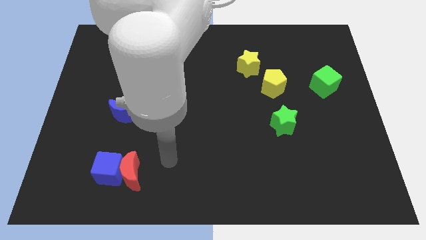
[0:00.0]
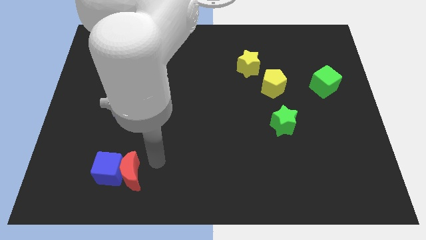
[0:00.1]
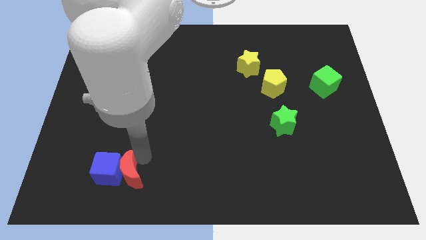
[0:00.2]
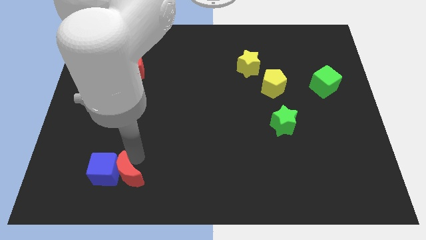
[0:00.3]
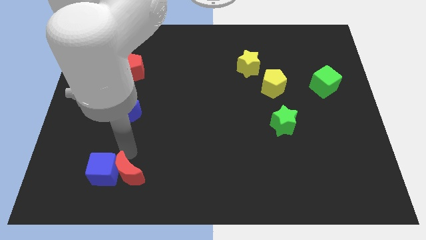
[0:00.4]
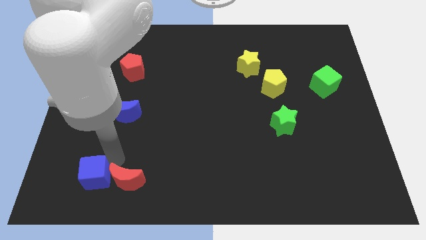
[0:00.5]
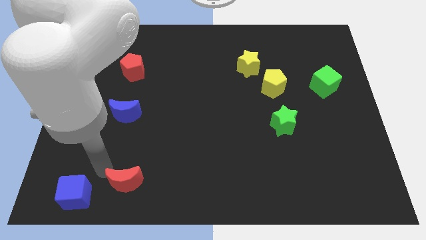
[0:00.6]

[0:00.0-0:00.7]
pull the red moon apart from the blue cube

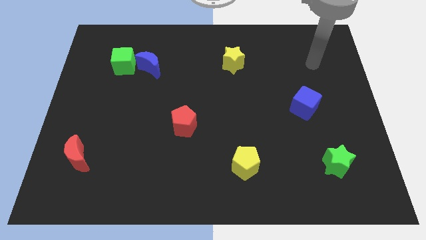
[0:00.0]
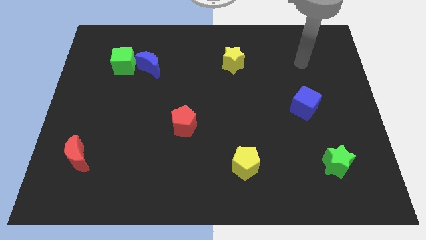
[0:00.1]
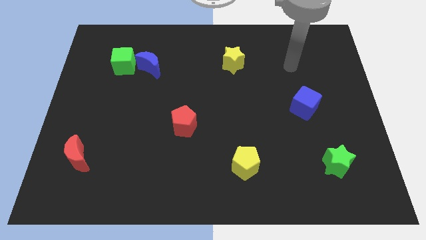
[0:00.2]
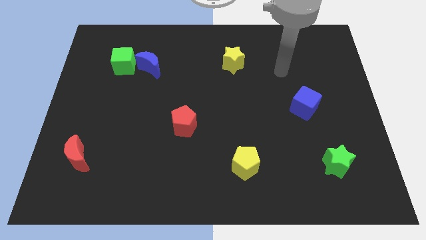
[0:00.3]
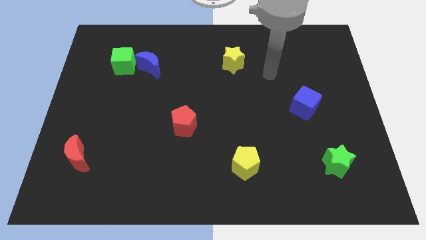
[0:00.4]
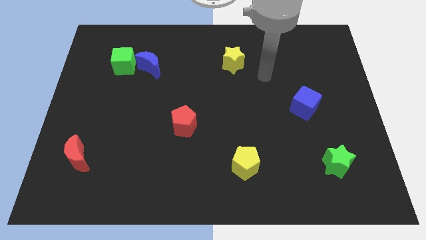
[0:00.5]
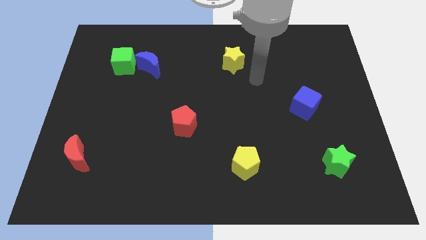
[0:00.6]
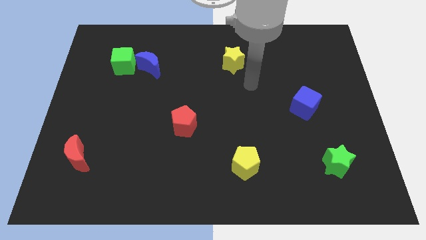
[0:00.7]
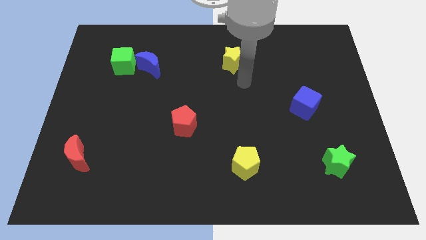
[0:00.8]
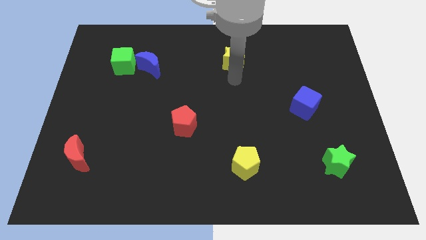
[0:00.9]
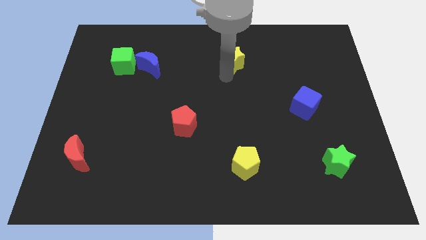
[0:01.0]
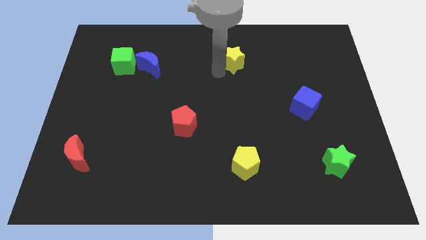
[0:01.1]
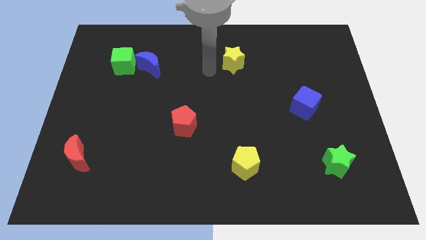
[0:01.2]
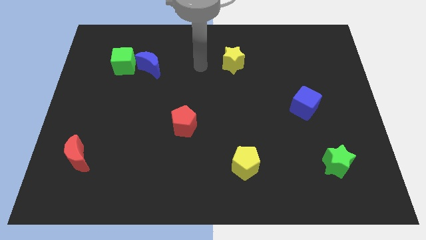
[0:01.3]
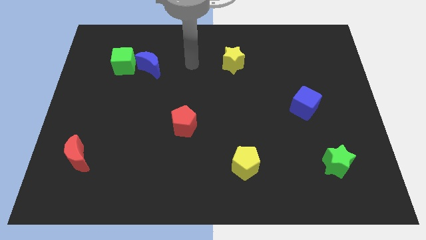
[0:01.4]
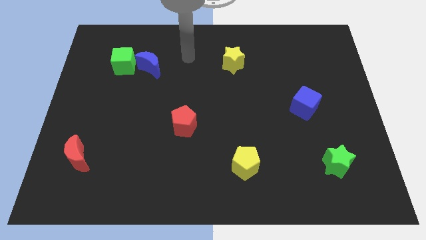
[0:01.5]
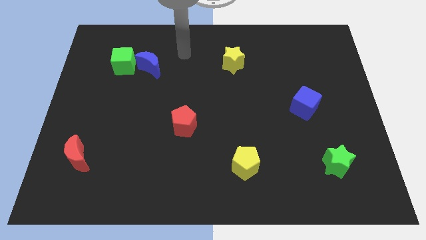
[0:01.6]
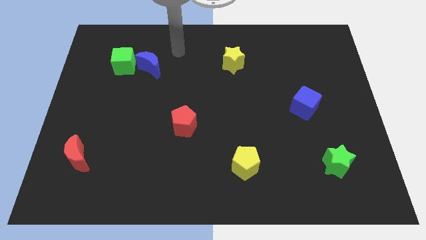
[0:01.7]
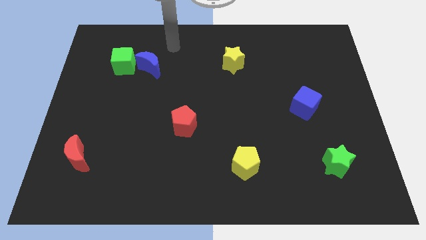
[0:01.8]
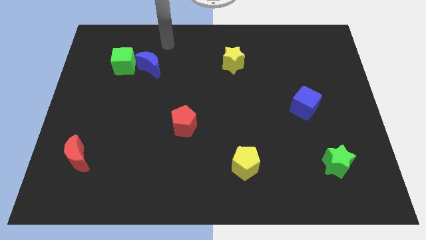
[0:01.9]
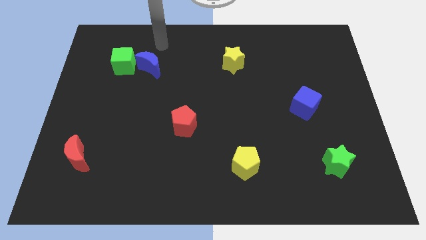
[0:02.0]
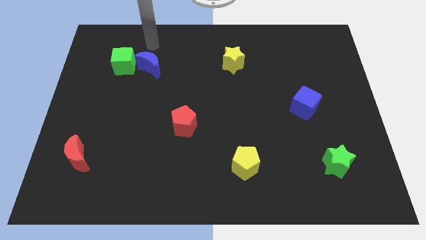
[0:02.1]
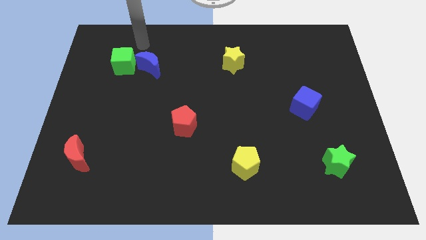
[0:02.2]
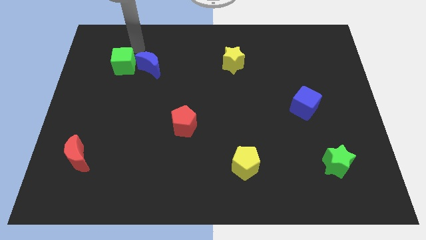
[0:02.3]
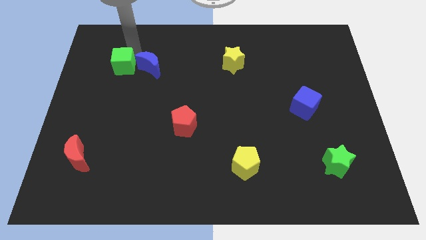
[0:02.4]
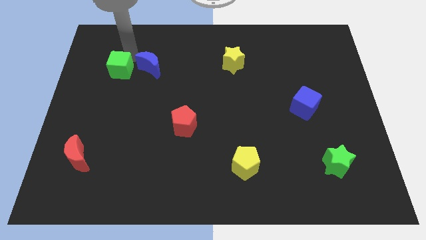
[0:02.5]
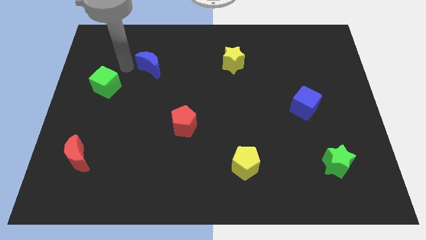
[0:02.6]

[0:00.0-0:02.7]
separate the blue moon from the green cube

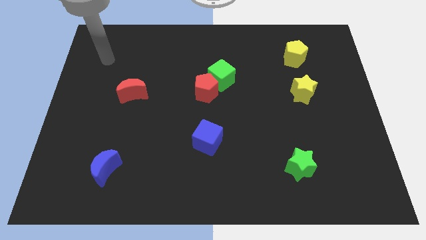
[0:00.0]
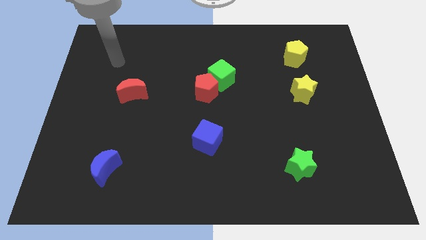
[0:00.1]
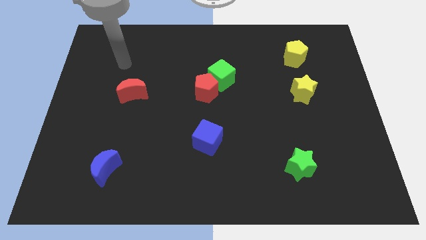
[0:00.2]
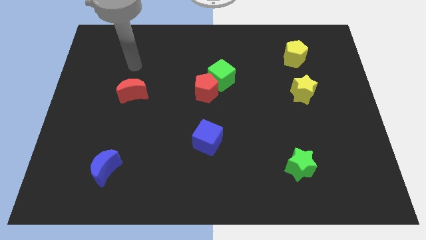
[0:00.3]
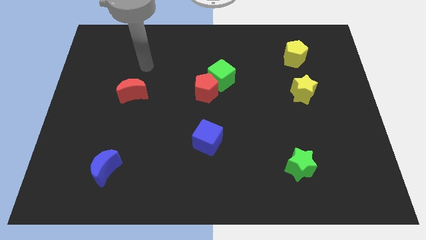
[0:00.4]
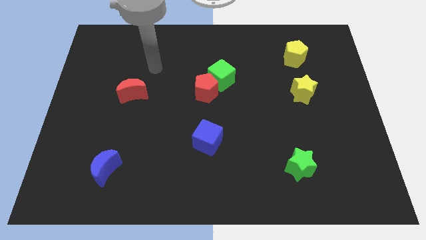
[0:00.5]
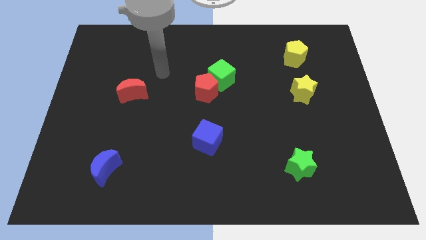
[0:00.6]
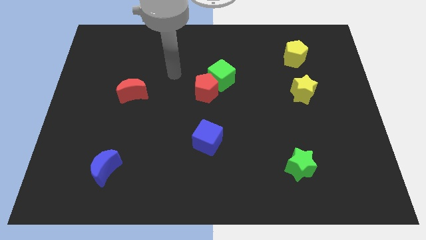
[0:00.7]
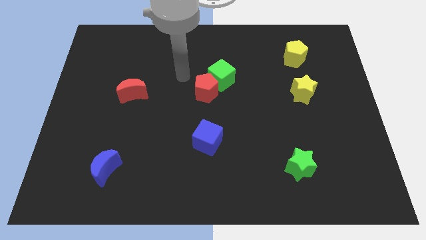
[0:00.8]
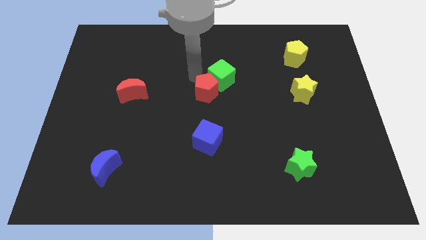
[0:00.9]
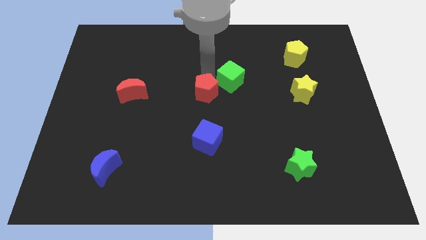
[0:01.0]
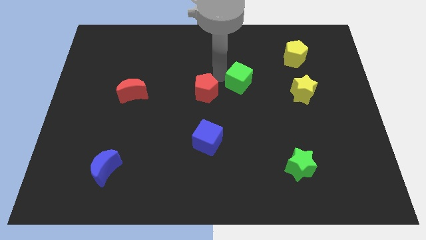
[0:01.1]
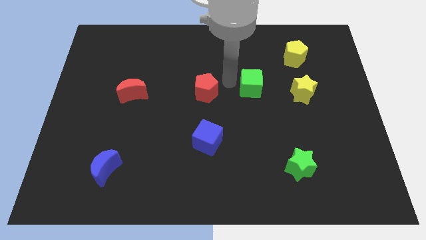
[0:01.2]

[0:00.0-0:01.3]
separate the red pentagon from the green cube

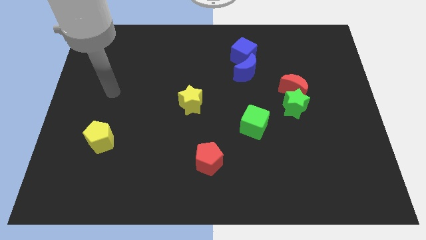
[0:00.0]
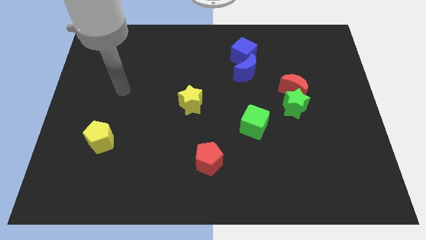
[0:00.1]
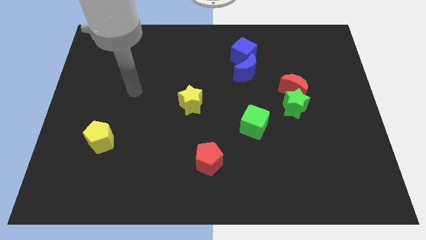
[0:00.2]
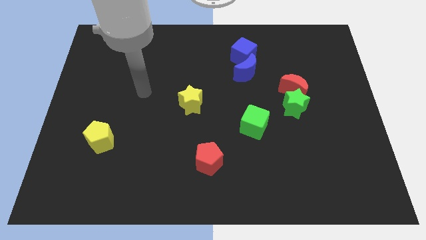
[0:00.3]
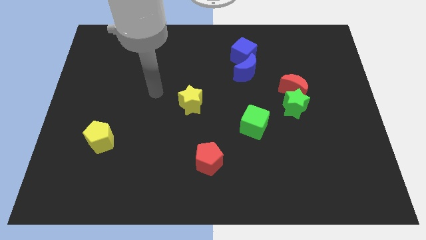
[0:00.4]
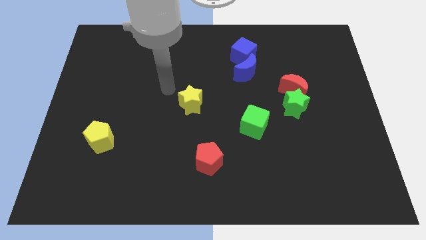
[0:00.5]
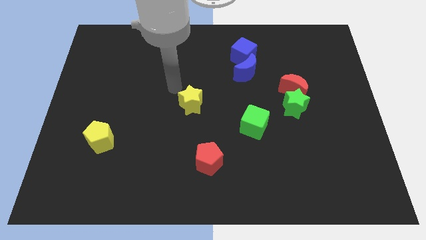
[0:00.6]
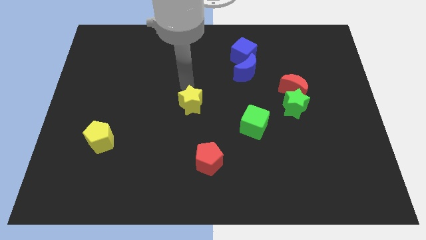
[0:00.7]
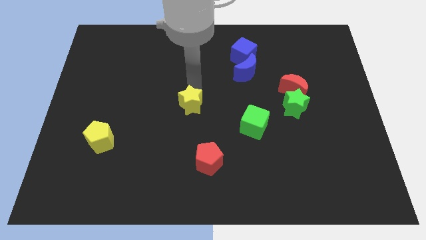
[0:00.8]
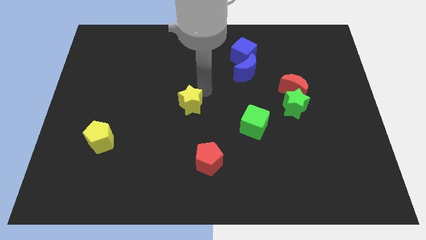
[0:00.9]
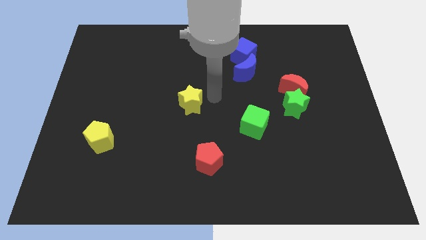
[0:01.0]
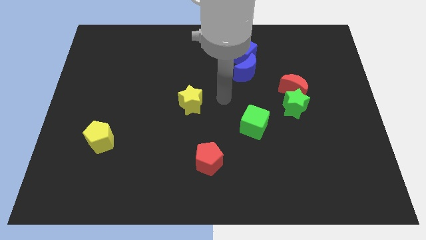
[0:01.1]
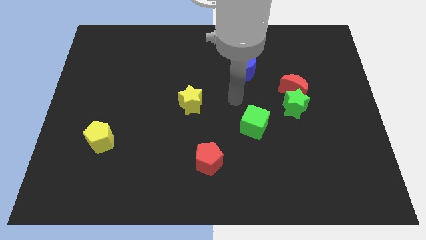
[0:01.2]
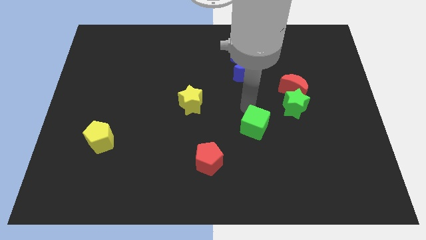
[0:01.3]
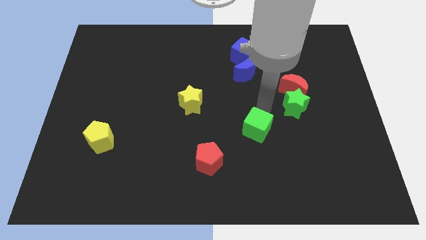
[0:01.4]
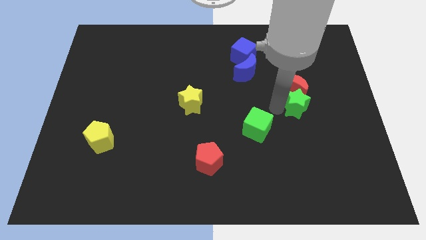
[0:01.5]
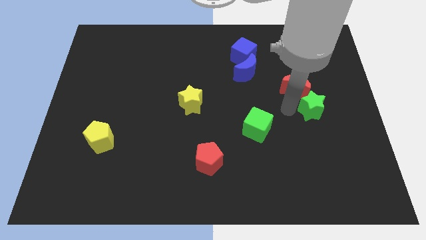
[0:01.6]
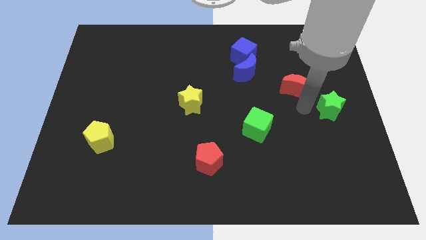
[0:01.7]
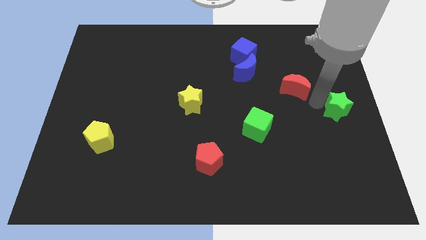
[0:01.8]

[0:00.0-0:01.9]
pull the red moon apart from the green star

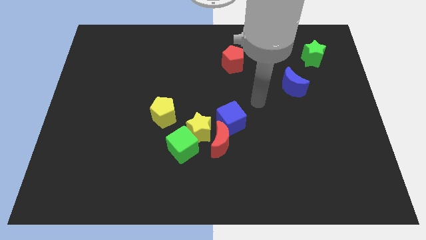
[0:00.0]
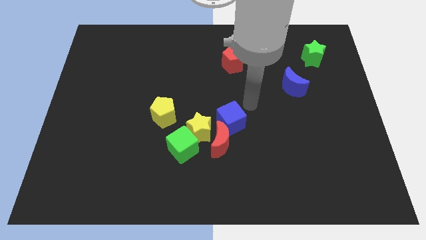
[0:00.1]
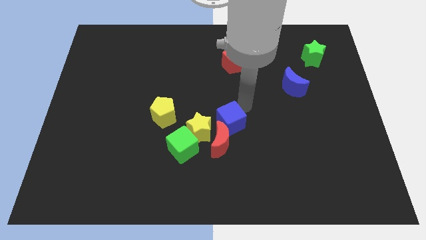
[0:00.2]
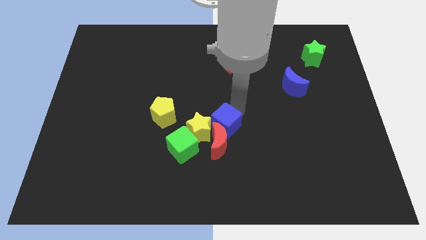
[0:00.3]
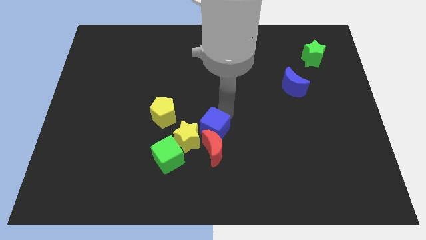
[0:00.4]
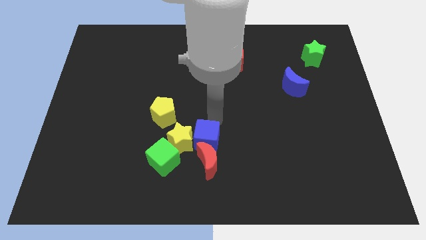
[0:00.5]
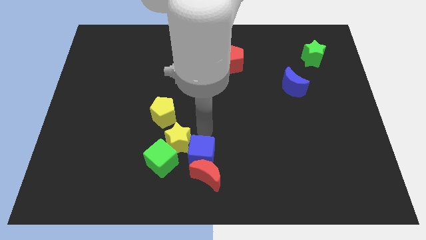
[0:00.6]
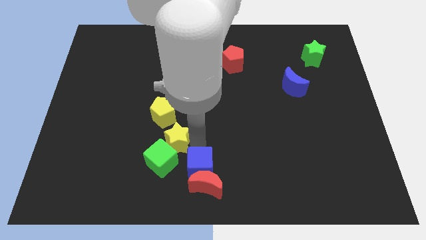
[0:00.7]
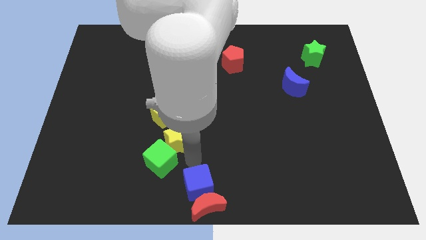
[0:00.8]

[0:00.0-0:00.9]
pull the red moon apart from the yellow star, blue cube, and green cube

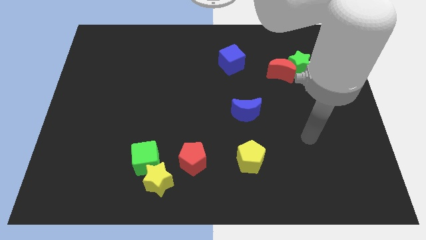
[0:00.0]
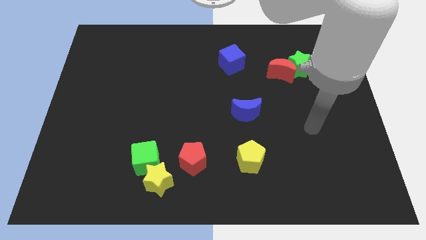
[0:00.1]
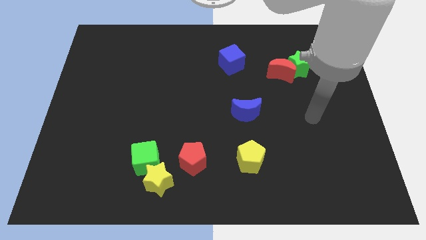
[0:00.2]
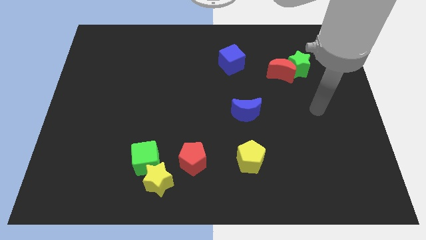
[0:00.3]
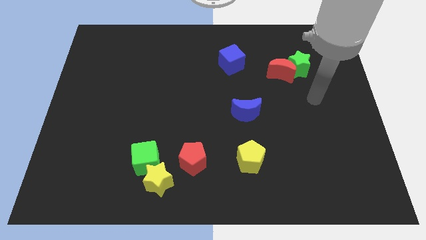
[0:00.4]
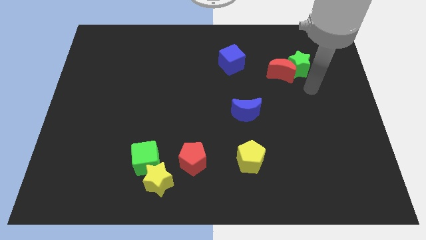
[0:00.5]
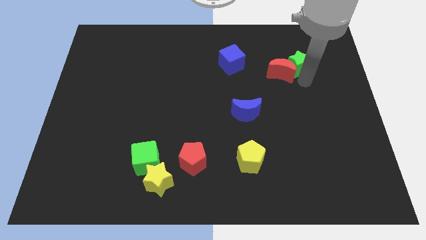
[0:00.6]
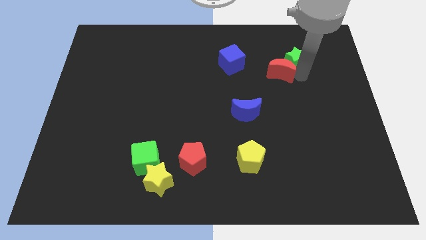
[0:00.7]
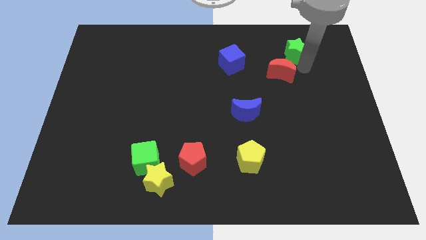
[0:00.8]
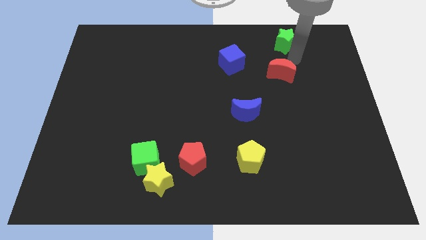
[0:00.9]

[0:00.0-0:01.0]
move the red moon away from the green star

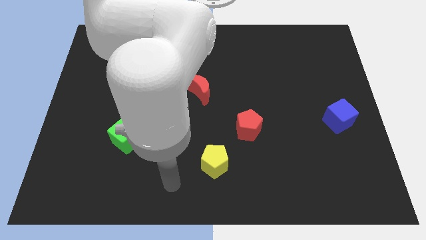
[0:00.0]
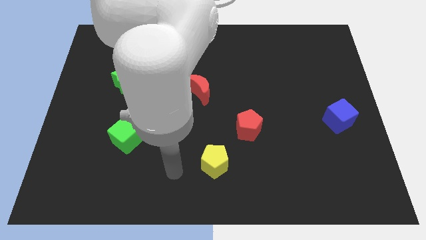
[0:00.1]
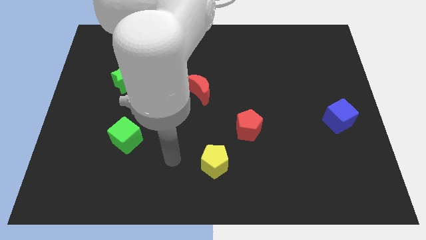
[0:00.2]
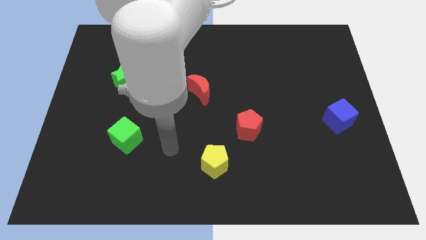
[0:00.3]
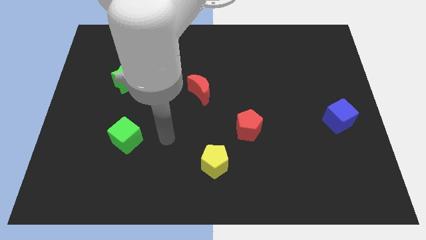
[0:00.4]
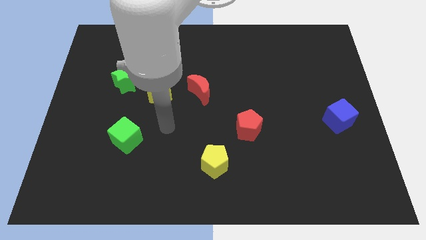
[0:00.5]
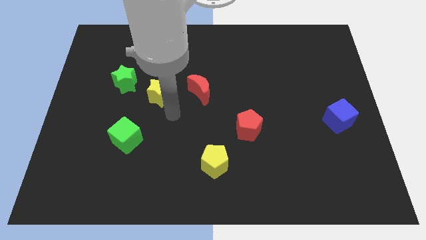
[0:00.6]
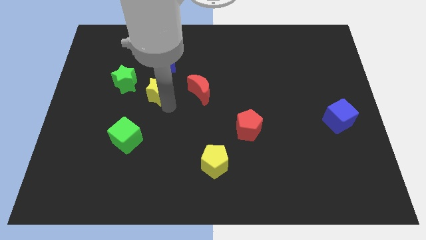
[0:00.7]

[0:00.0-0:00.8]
move the red moon away from the yellow star

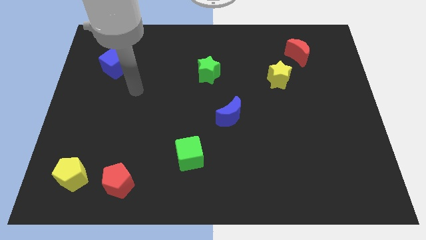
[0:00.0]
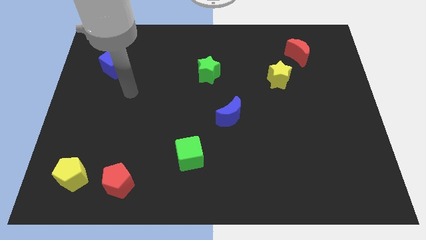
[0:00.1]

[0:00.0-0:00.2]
separate the red pentagon from the yellow pentagon
